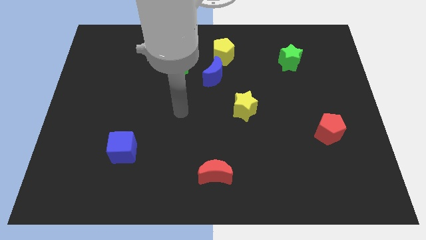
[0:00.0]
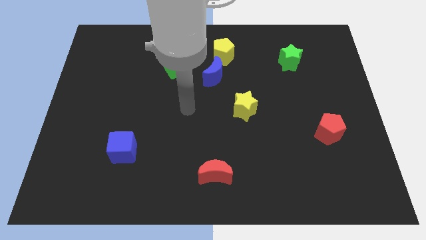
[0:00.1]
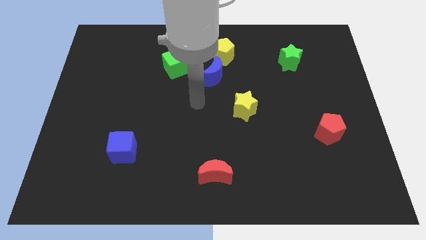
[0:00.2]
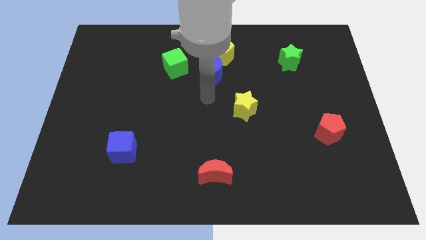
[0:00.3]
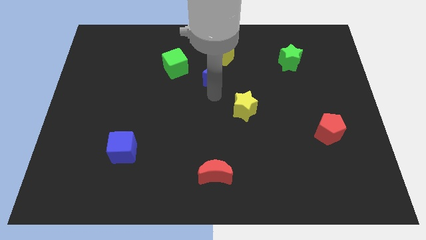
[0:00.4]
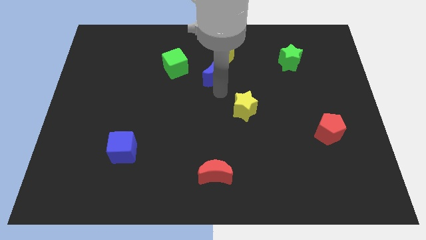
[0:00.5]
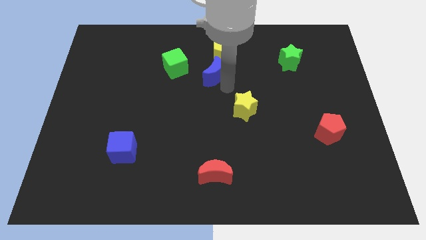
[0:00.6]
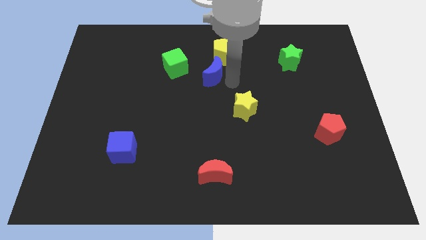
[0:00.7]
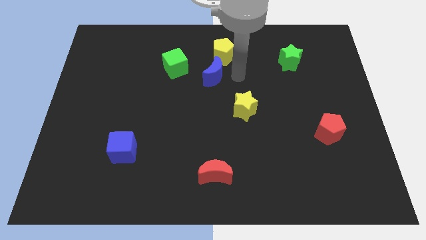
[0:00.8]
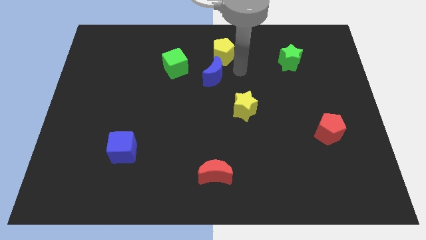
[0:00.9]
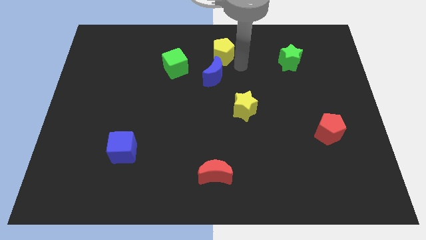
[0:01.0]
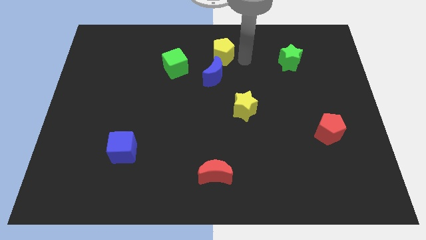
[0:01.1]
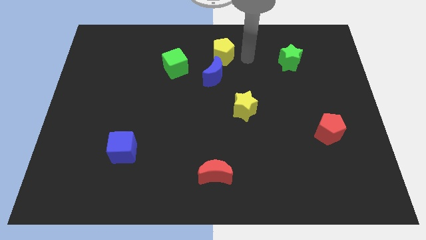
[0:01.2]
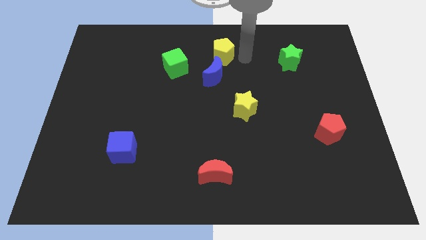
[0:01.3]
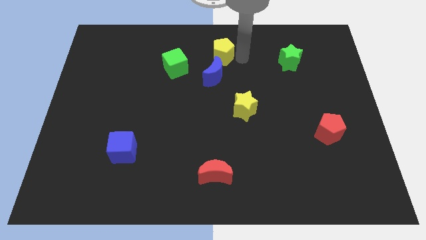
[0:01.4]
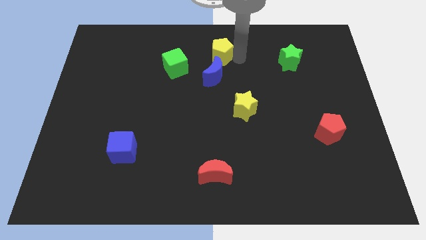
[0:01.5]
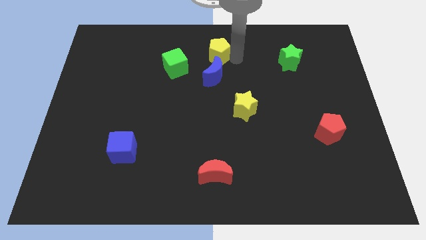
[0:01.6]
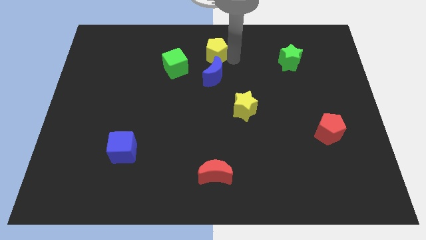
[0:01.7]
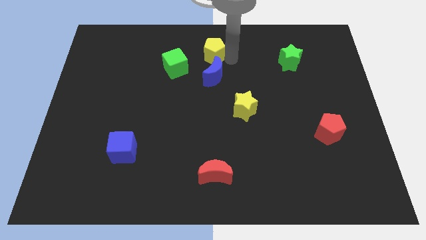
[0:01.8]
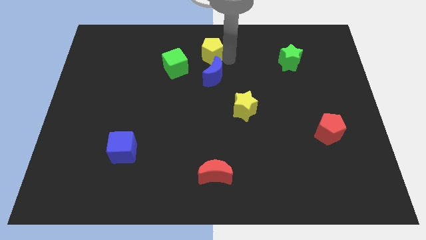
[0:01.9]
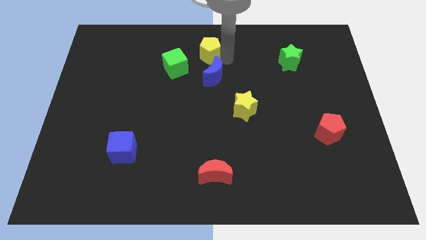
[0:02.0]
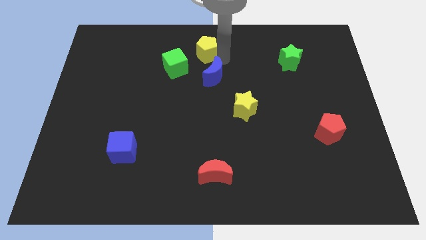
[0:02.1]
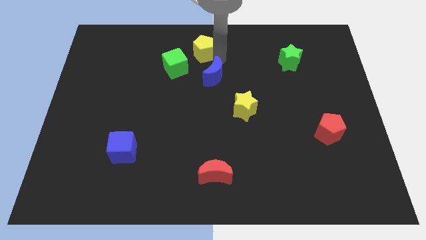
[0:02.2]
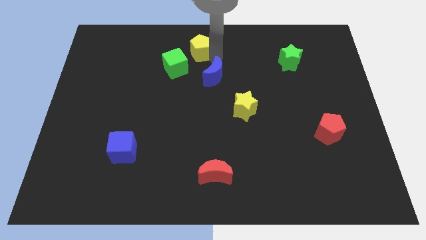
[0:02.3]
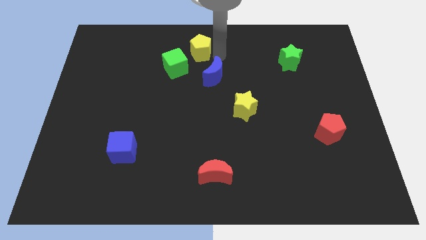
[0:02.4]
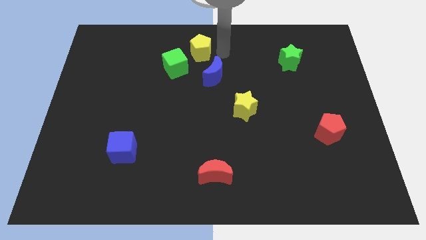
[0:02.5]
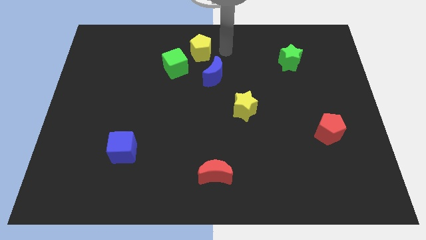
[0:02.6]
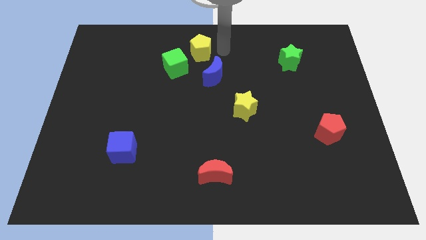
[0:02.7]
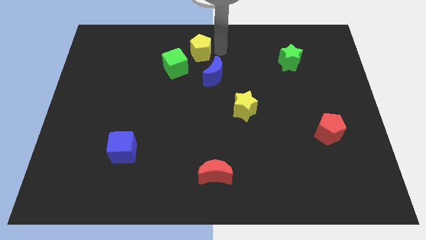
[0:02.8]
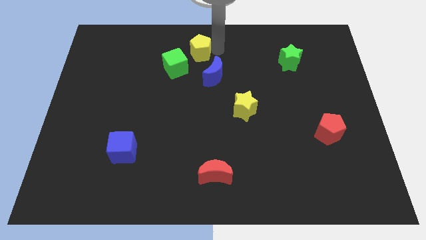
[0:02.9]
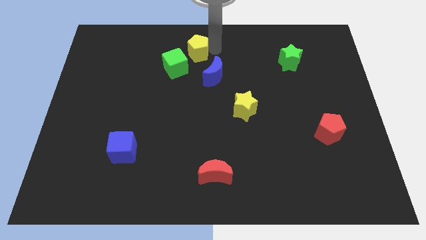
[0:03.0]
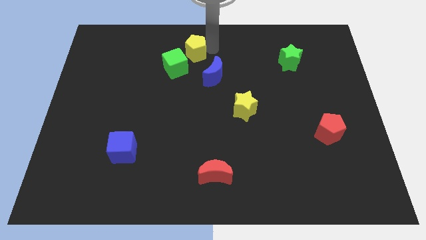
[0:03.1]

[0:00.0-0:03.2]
slightly push the yellow pentagon to the left

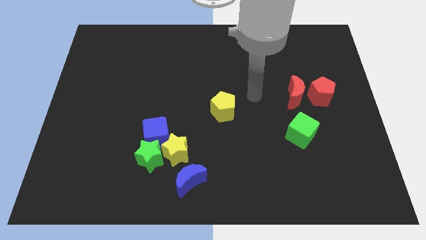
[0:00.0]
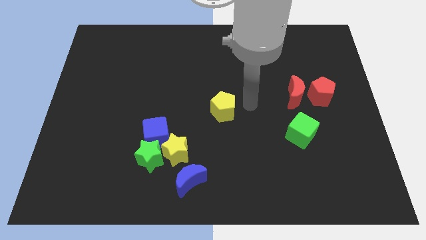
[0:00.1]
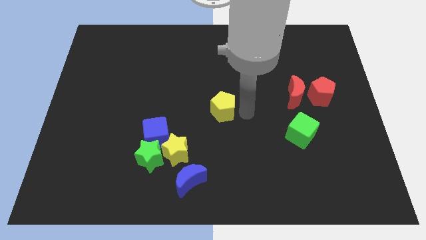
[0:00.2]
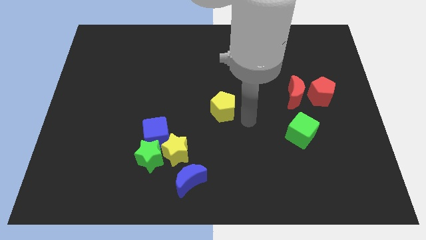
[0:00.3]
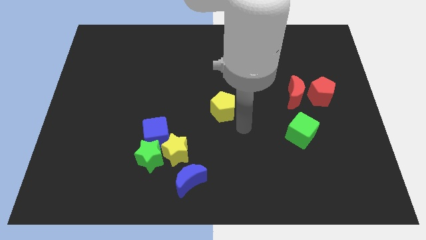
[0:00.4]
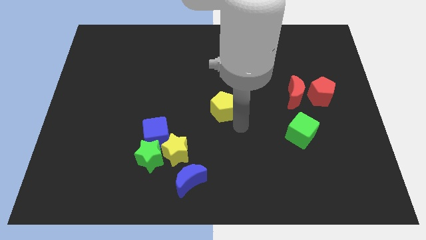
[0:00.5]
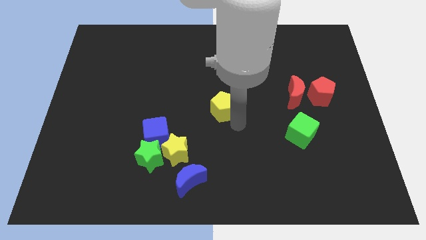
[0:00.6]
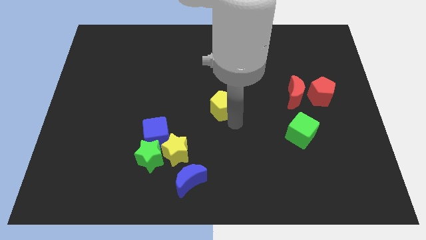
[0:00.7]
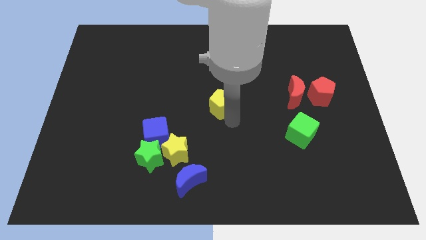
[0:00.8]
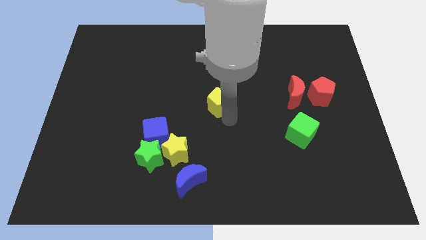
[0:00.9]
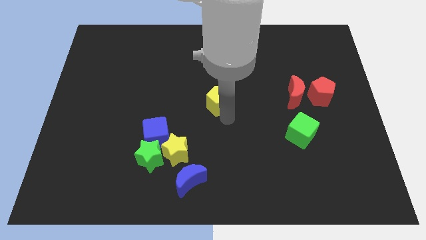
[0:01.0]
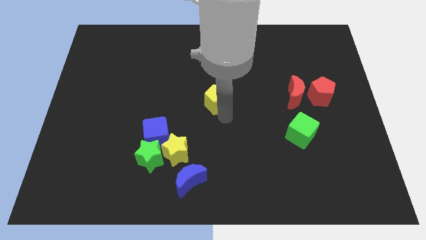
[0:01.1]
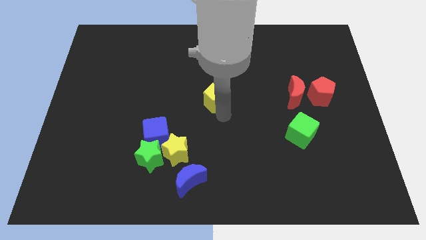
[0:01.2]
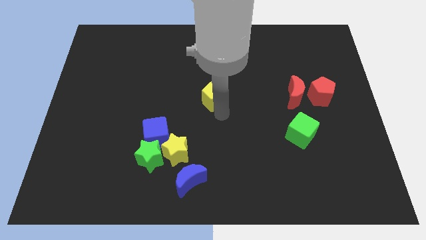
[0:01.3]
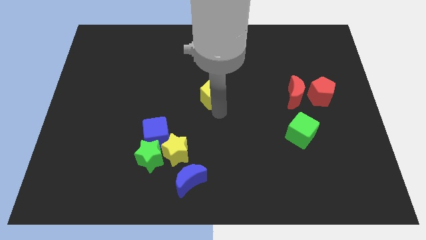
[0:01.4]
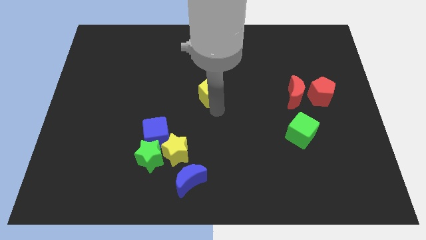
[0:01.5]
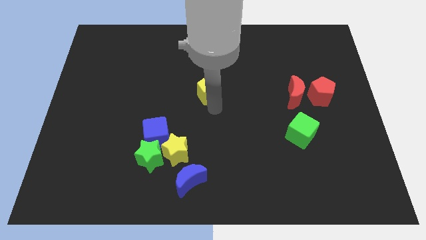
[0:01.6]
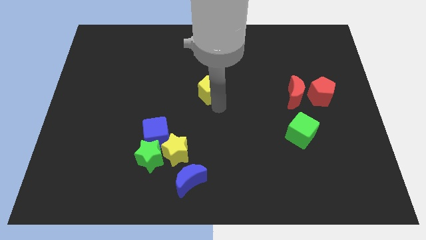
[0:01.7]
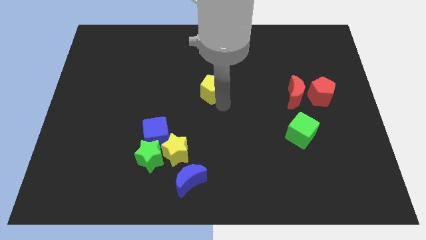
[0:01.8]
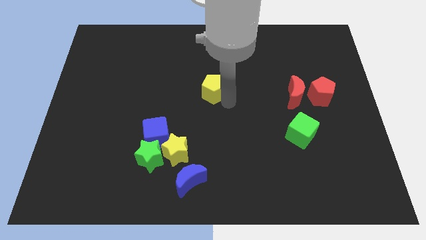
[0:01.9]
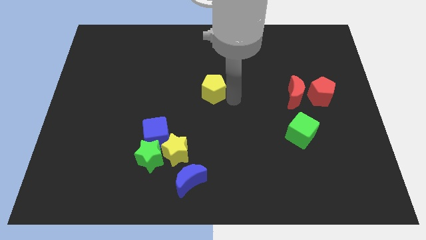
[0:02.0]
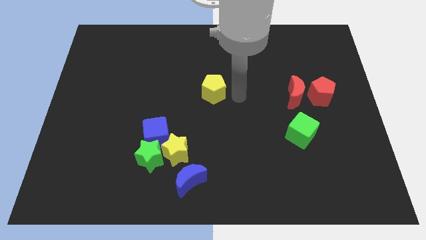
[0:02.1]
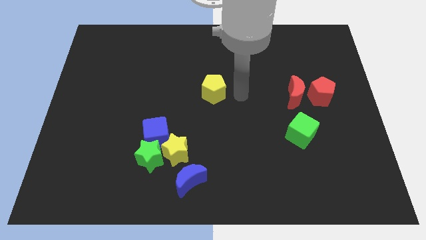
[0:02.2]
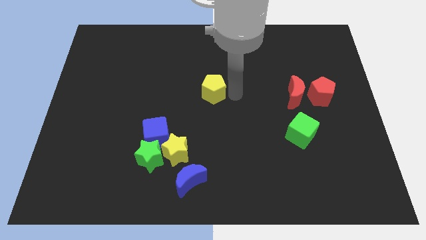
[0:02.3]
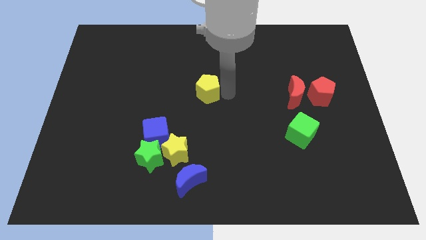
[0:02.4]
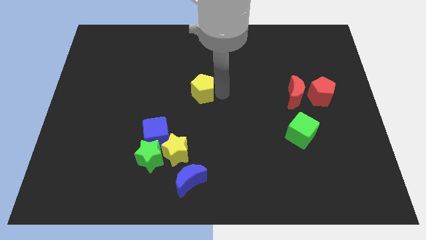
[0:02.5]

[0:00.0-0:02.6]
move the yellow pentagon a little bit up and to the left diagonally

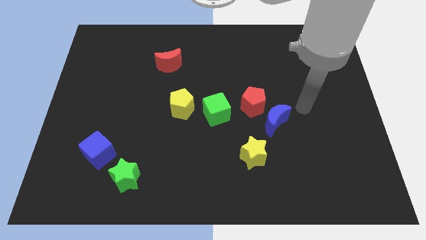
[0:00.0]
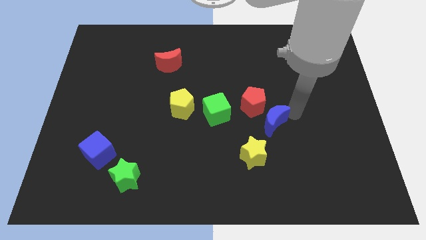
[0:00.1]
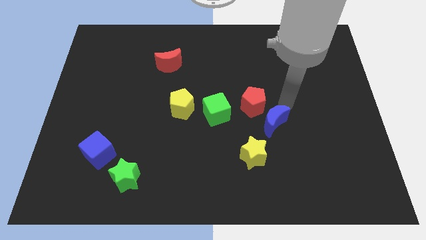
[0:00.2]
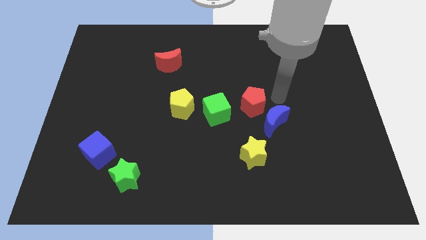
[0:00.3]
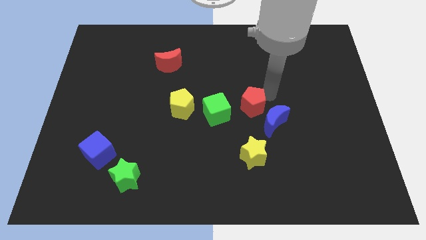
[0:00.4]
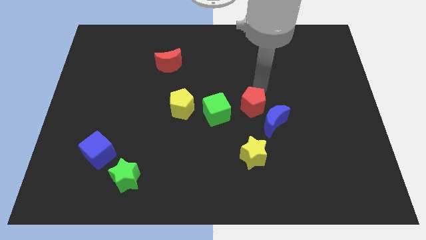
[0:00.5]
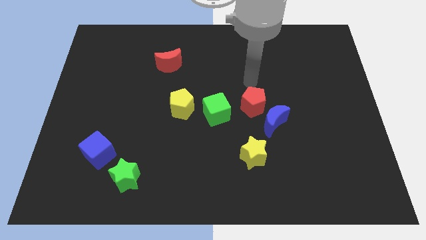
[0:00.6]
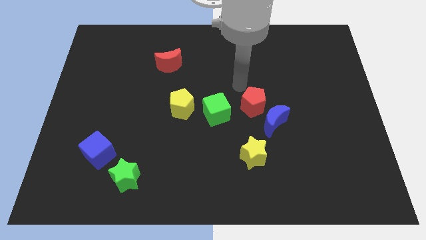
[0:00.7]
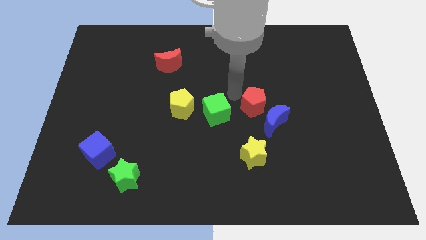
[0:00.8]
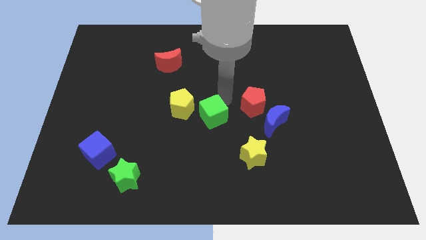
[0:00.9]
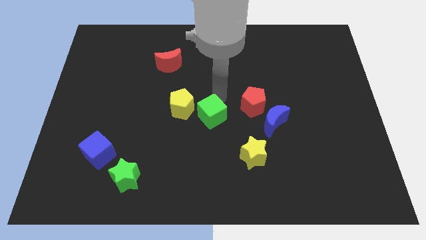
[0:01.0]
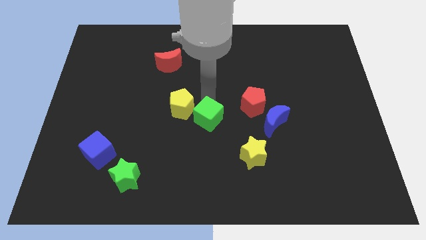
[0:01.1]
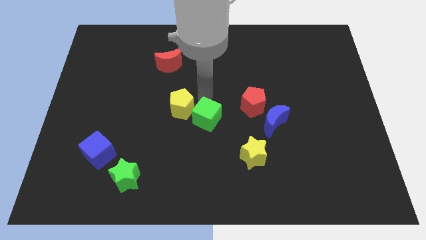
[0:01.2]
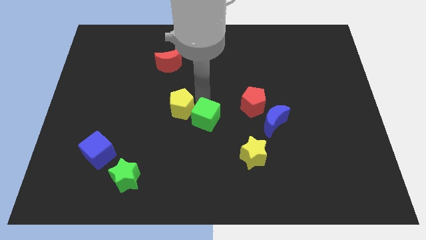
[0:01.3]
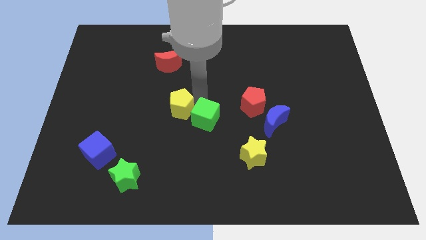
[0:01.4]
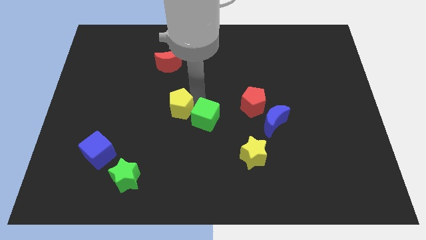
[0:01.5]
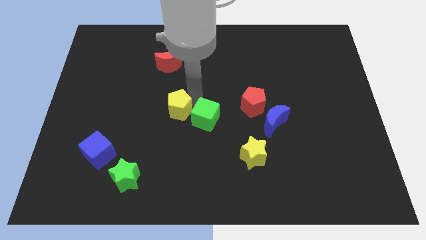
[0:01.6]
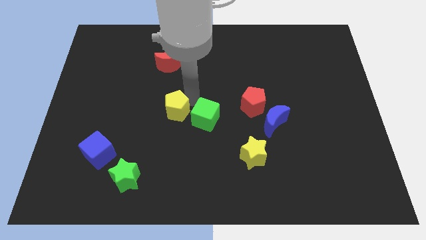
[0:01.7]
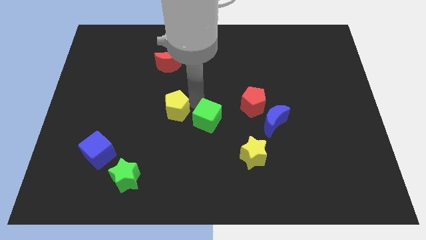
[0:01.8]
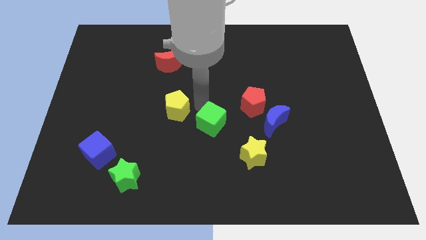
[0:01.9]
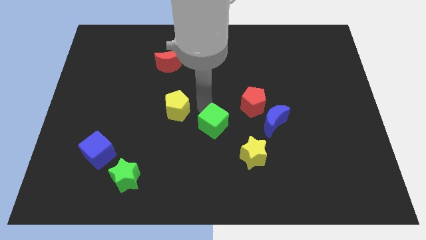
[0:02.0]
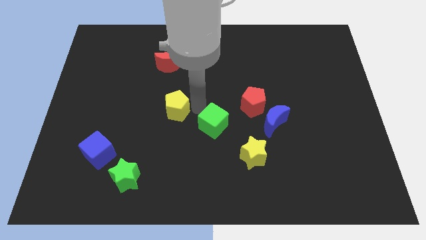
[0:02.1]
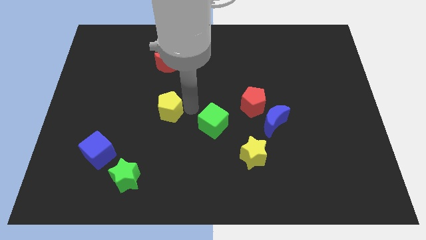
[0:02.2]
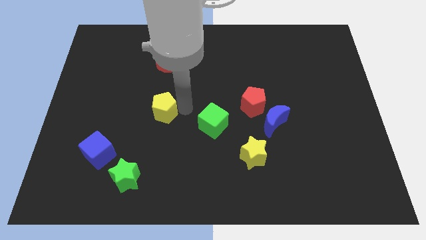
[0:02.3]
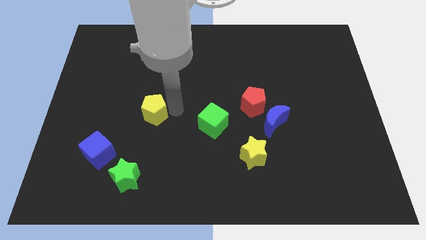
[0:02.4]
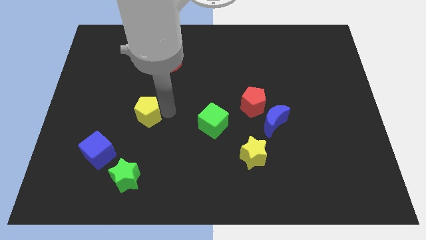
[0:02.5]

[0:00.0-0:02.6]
slide the yellow pentagon a bit left
